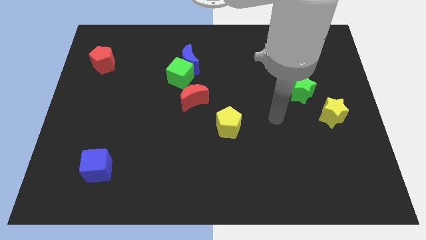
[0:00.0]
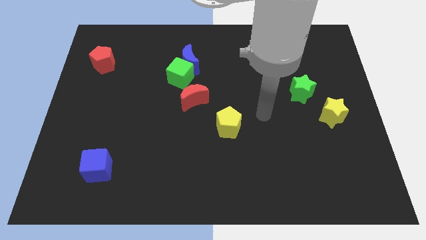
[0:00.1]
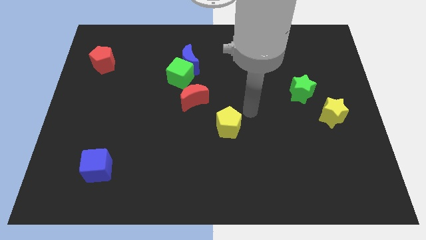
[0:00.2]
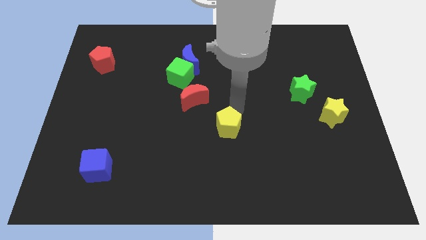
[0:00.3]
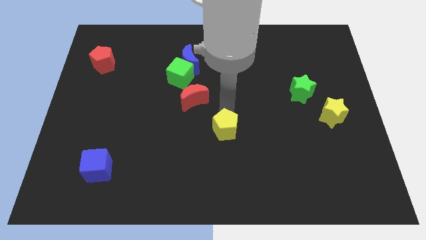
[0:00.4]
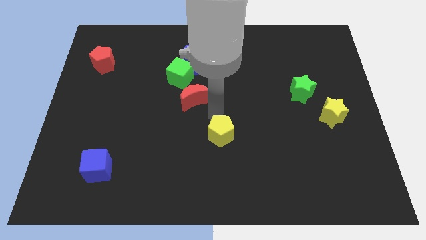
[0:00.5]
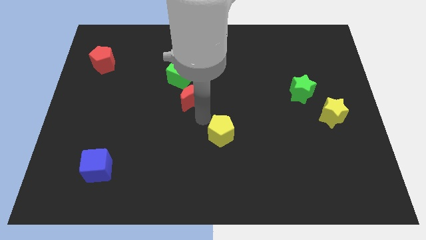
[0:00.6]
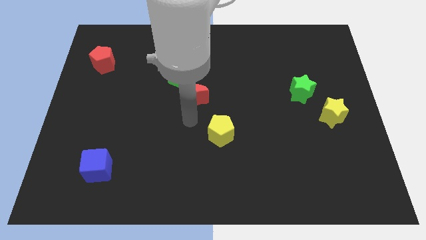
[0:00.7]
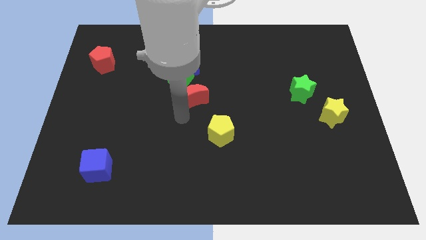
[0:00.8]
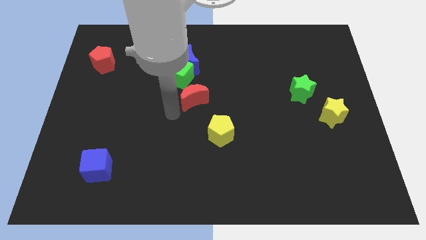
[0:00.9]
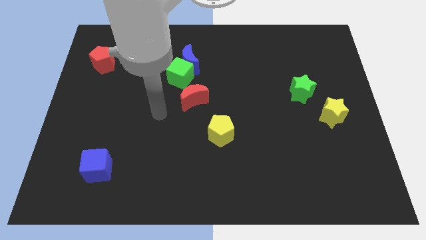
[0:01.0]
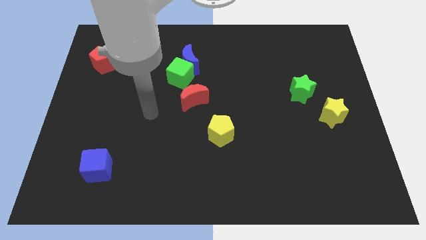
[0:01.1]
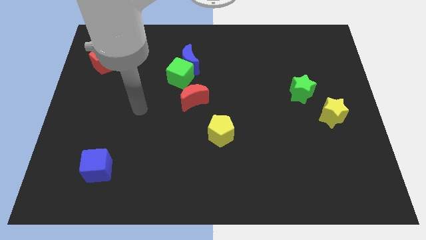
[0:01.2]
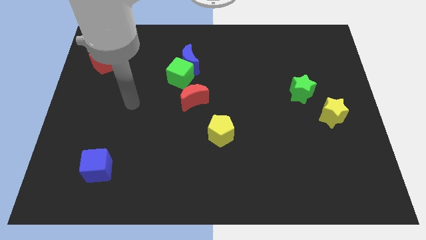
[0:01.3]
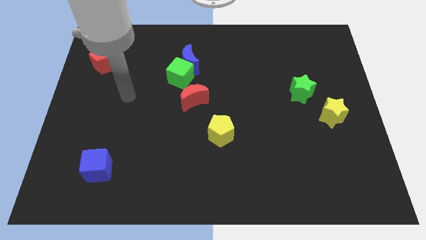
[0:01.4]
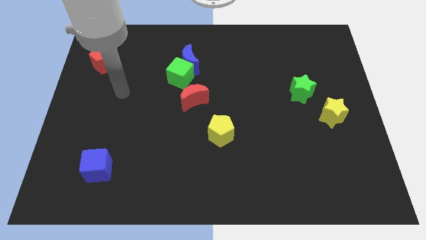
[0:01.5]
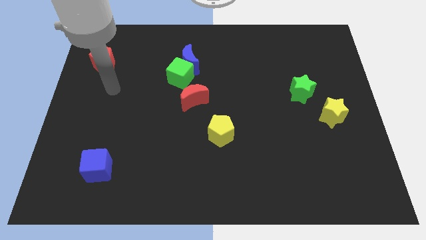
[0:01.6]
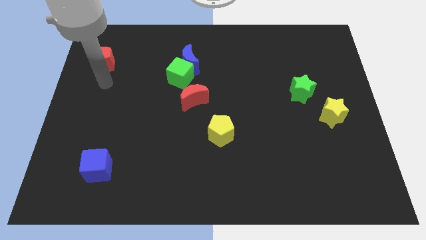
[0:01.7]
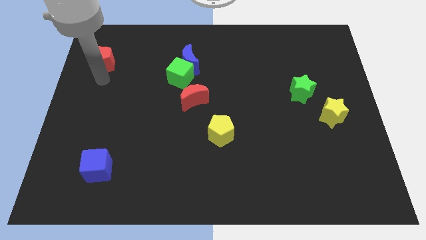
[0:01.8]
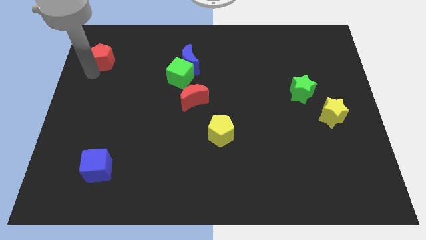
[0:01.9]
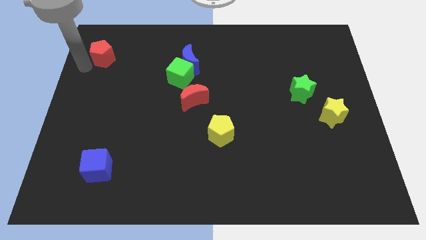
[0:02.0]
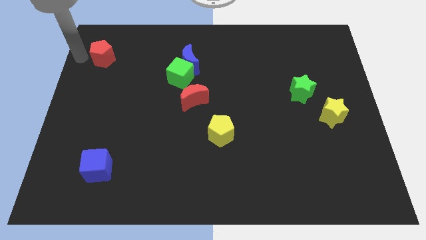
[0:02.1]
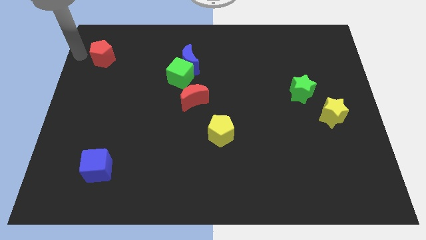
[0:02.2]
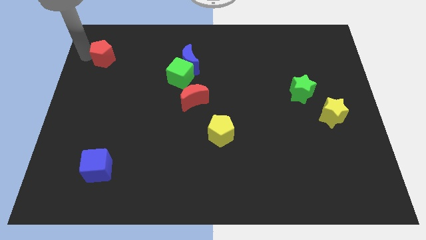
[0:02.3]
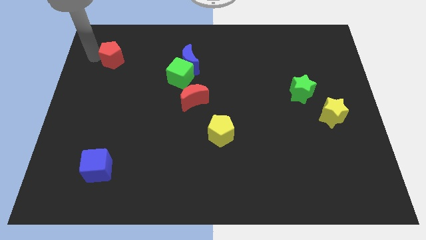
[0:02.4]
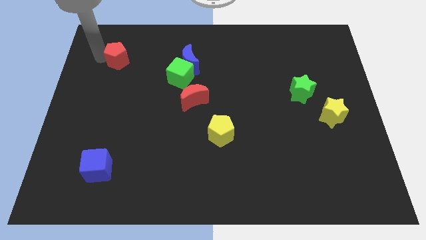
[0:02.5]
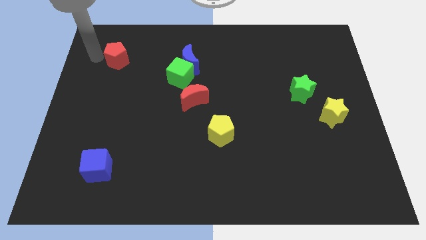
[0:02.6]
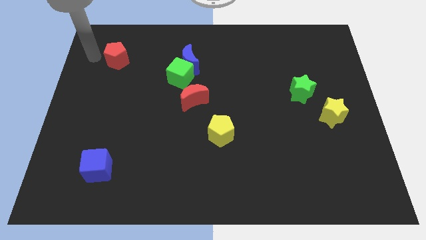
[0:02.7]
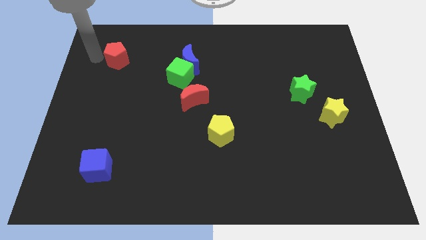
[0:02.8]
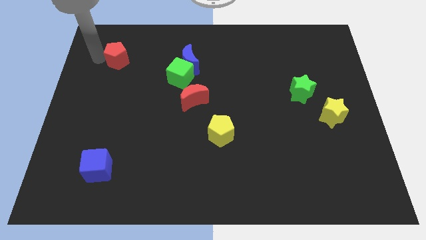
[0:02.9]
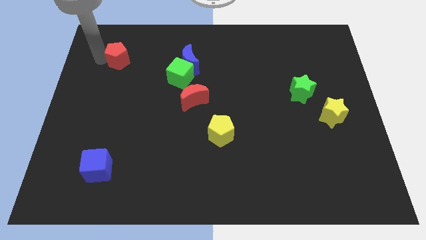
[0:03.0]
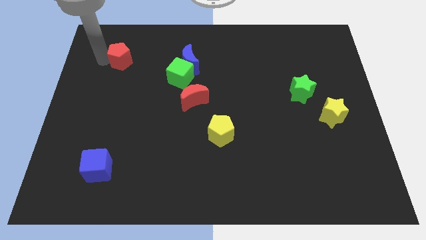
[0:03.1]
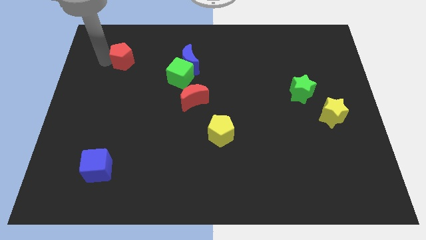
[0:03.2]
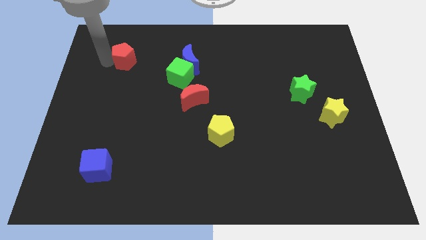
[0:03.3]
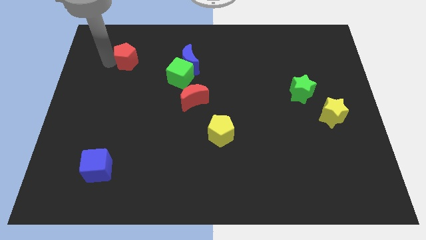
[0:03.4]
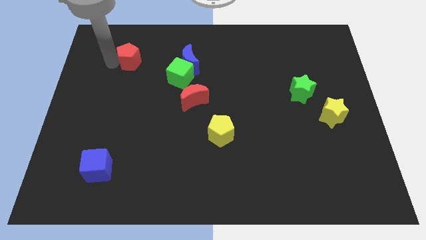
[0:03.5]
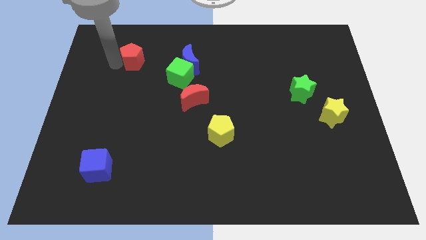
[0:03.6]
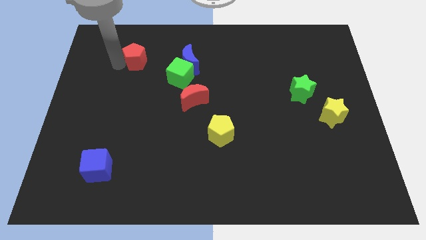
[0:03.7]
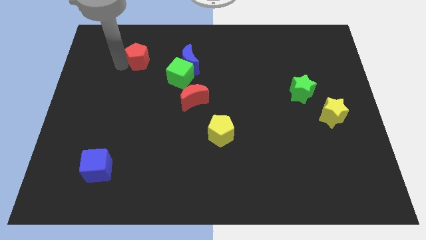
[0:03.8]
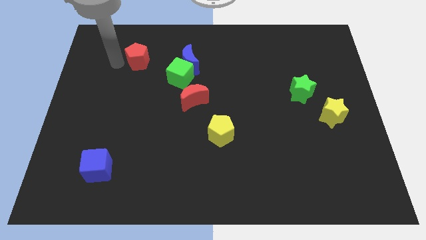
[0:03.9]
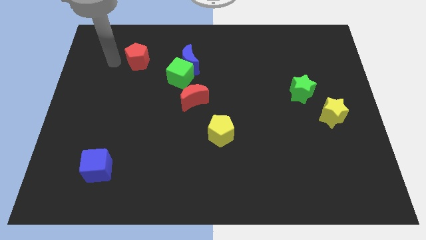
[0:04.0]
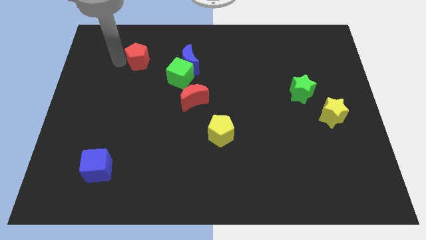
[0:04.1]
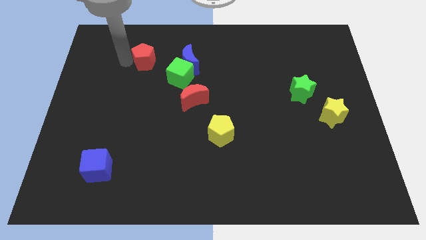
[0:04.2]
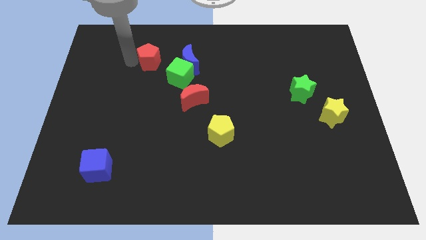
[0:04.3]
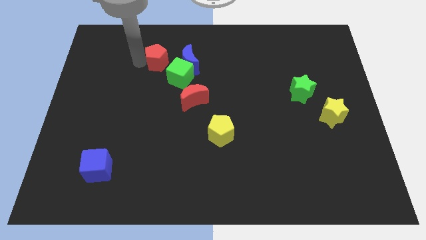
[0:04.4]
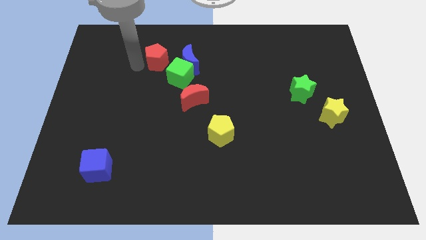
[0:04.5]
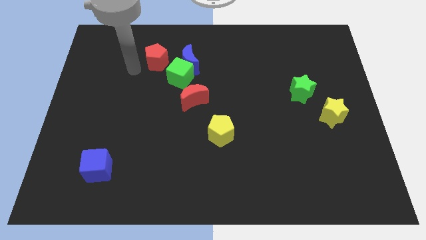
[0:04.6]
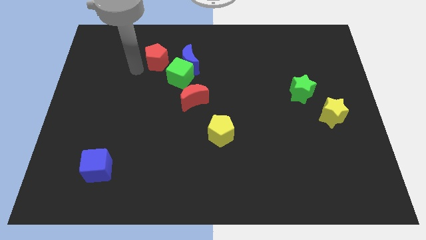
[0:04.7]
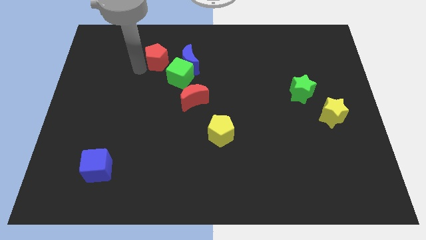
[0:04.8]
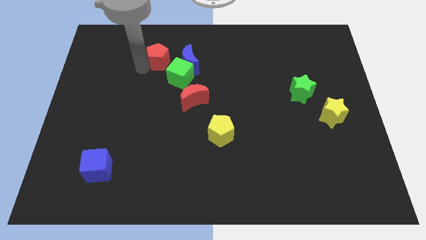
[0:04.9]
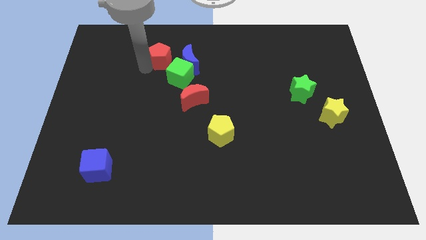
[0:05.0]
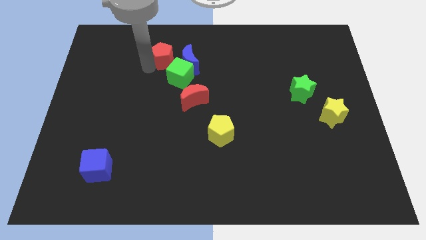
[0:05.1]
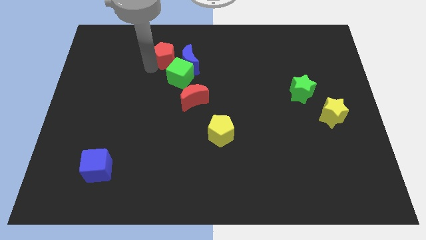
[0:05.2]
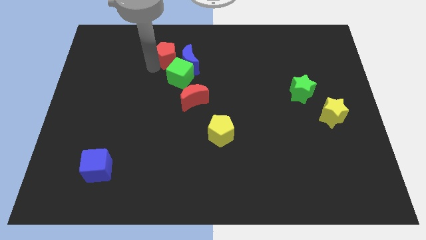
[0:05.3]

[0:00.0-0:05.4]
push the red pentagon close to the blue moon

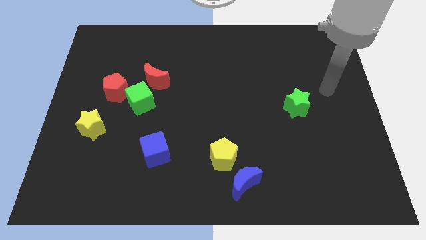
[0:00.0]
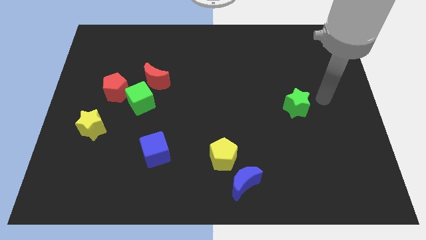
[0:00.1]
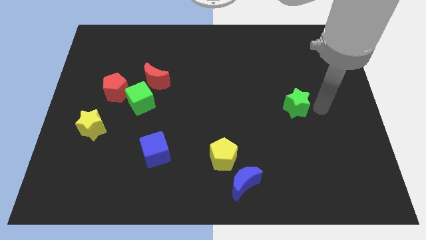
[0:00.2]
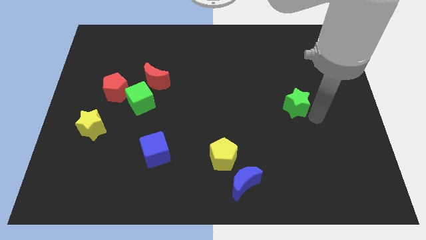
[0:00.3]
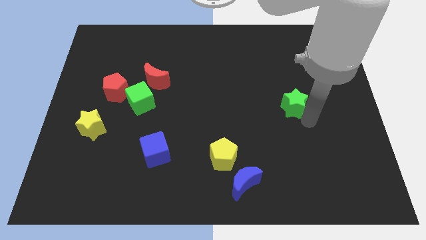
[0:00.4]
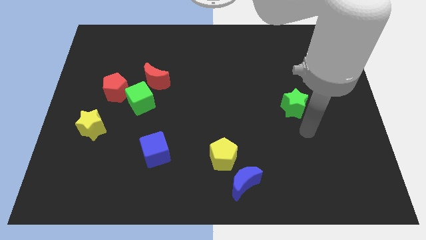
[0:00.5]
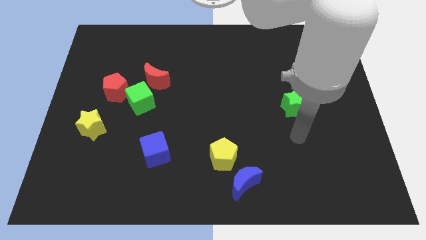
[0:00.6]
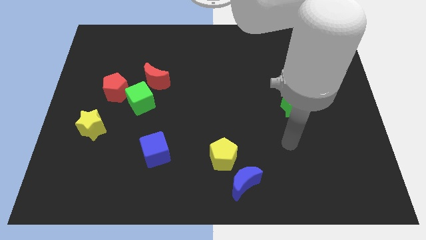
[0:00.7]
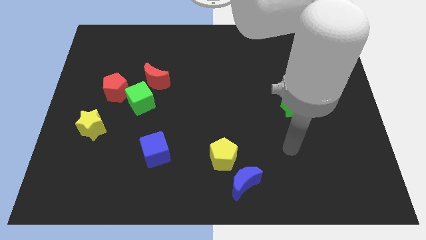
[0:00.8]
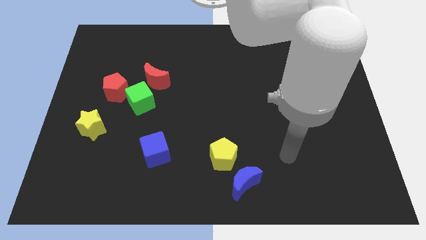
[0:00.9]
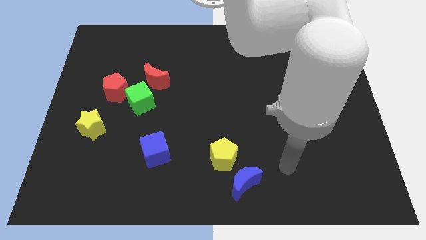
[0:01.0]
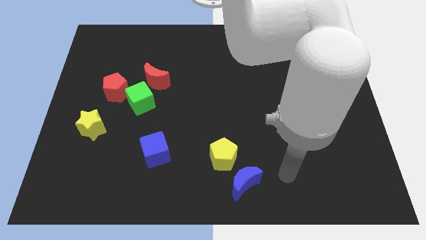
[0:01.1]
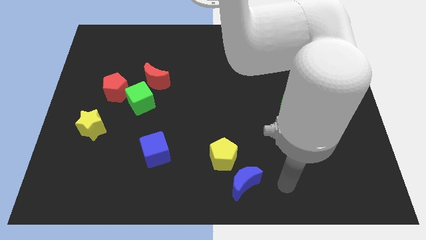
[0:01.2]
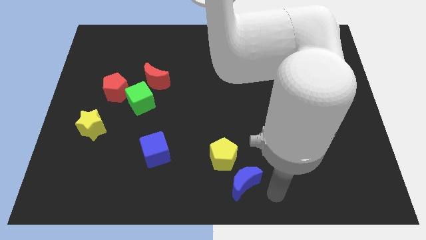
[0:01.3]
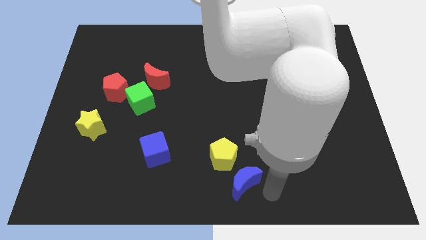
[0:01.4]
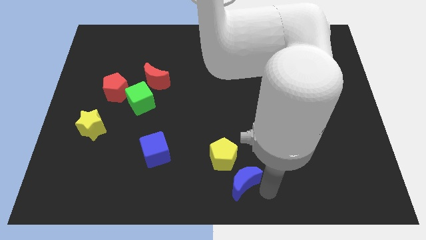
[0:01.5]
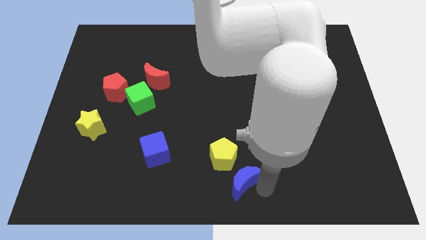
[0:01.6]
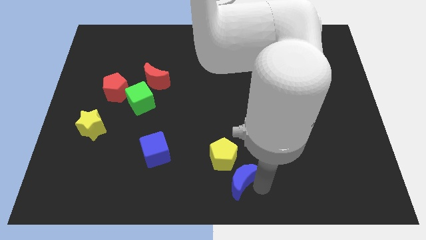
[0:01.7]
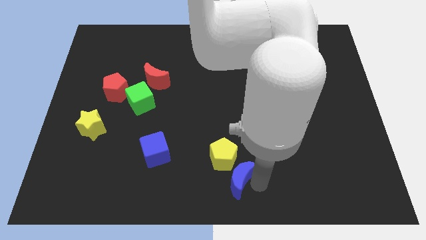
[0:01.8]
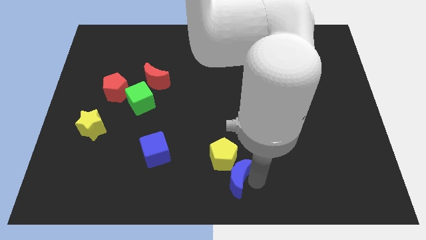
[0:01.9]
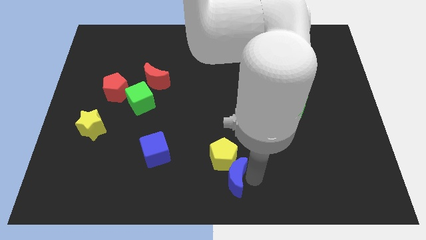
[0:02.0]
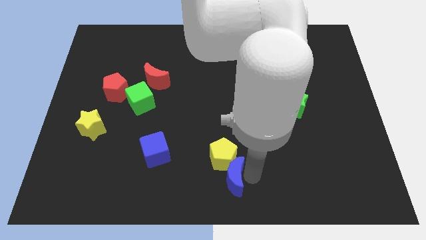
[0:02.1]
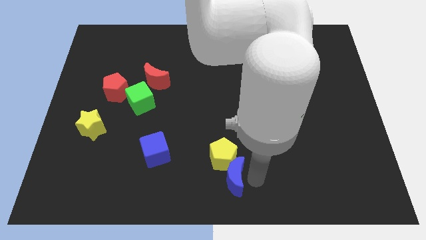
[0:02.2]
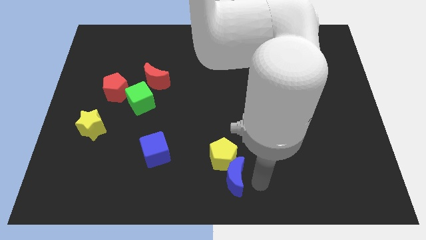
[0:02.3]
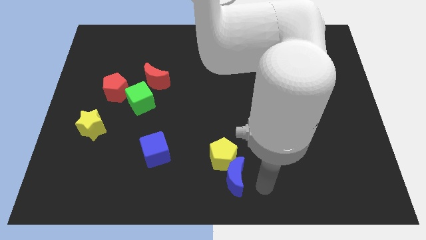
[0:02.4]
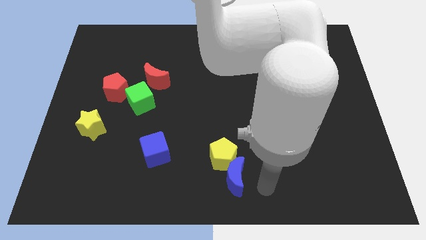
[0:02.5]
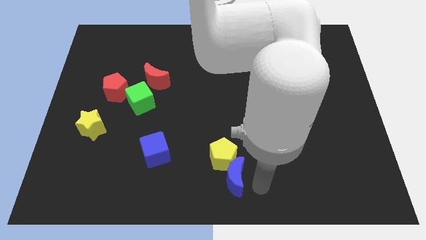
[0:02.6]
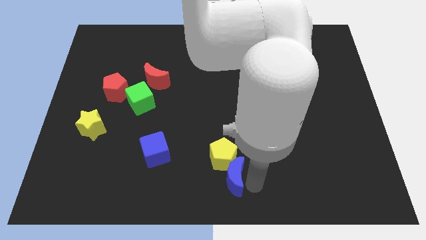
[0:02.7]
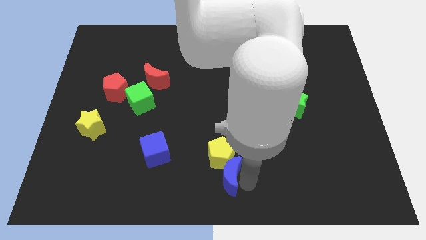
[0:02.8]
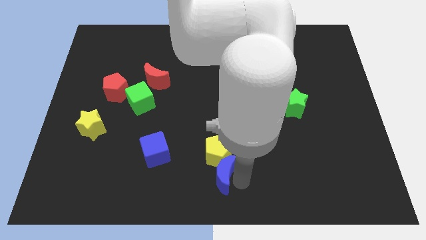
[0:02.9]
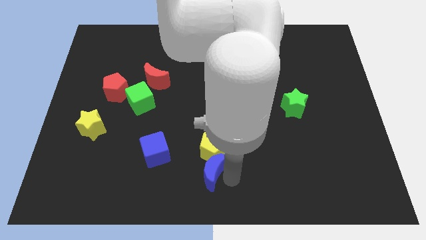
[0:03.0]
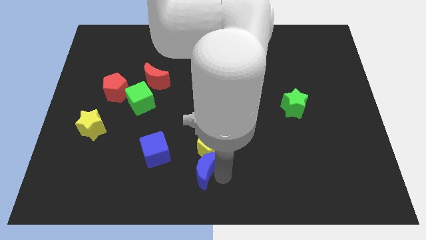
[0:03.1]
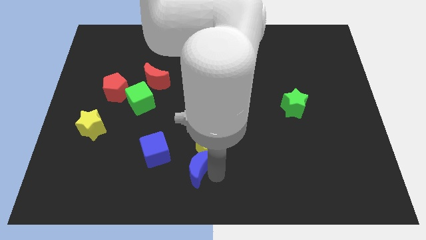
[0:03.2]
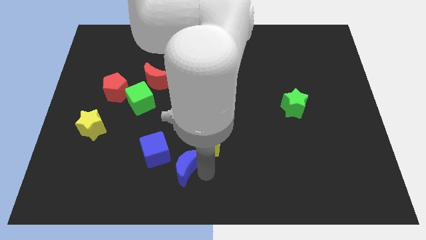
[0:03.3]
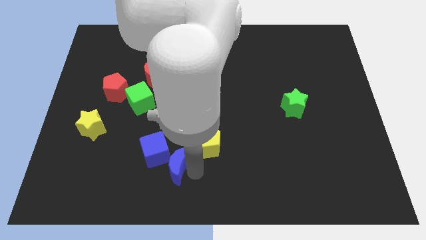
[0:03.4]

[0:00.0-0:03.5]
slide the blue moon next to the blue cube
